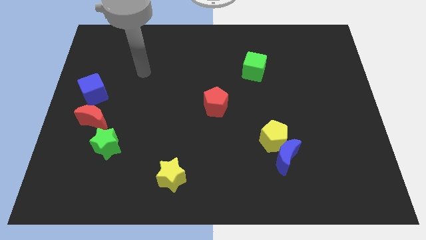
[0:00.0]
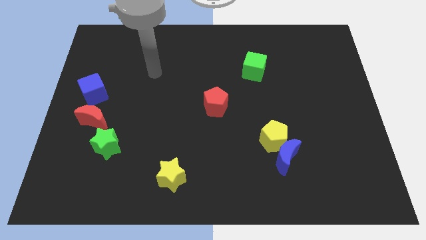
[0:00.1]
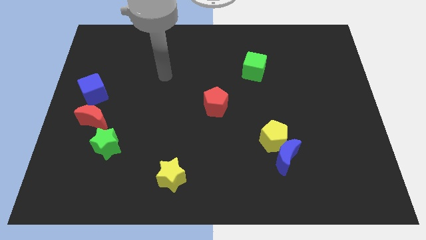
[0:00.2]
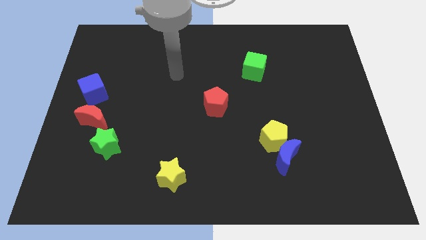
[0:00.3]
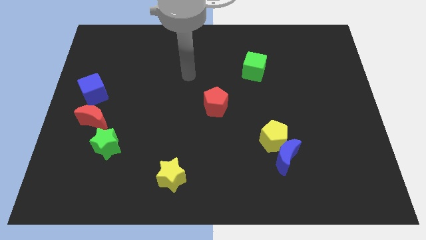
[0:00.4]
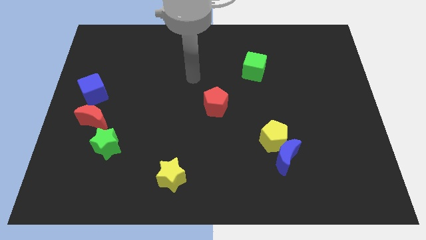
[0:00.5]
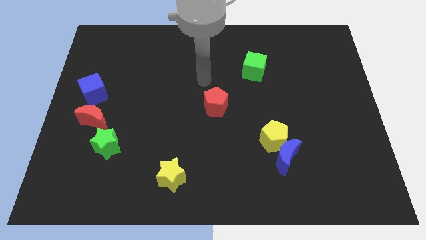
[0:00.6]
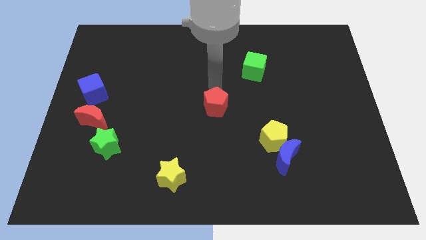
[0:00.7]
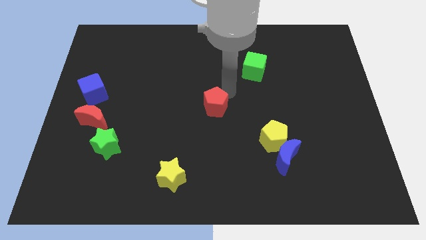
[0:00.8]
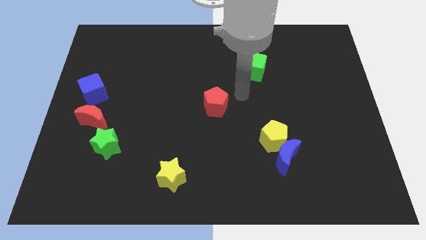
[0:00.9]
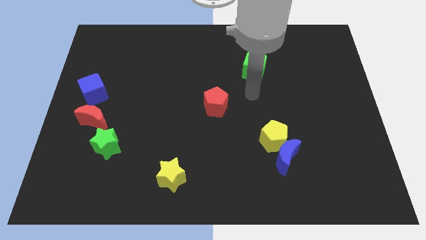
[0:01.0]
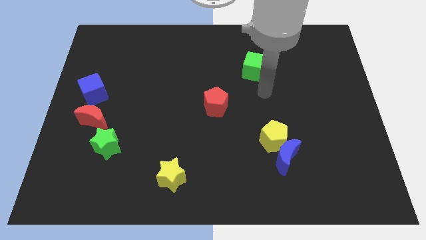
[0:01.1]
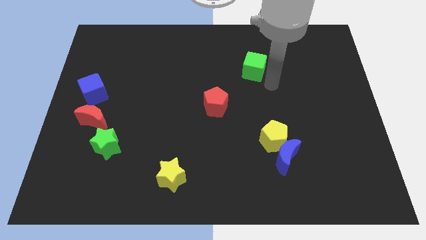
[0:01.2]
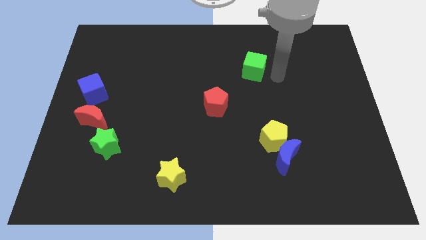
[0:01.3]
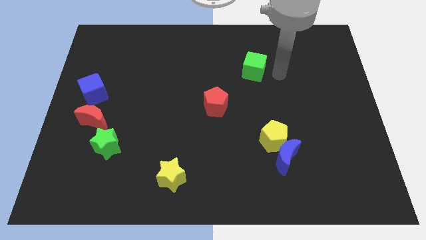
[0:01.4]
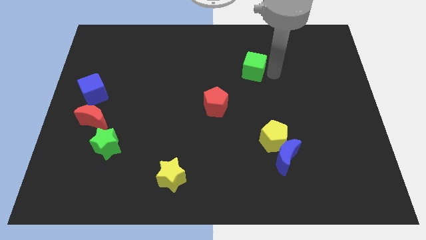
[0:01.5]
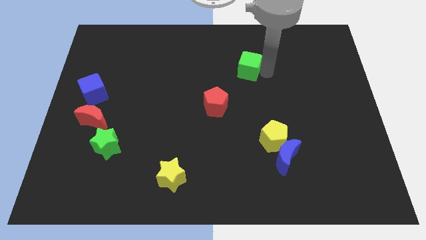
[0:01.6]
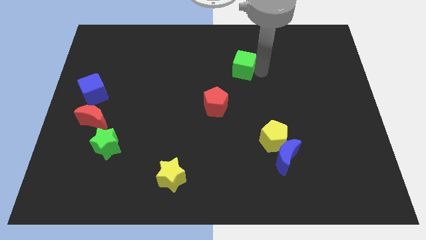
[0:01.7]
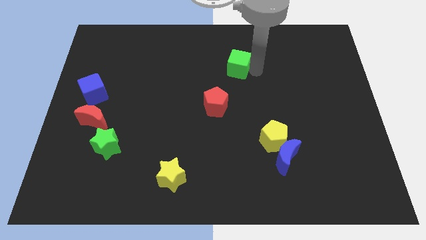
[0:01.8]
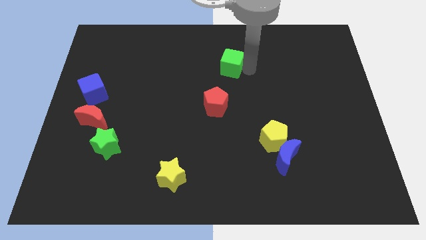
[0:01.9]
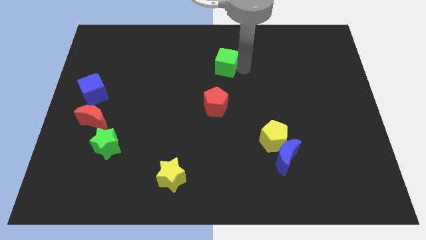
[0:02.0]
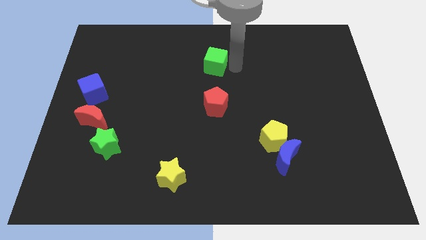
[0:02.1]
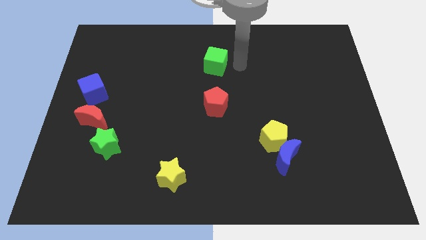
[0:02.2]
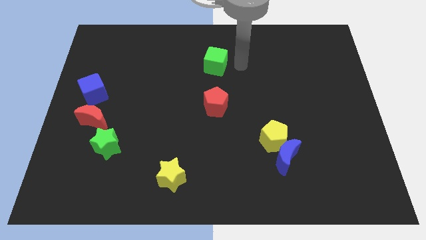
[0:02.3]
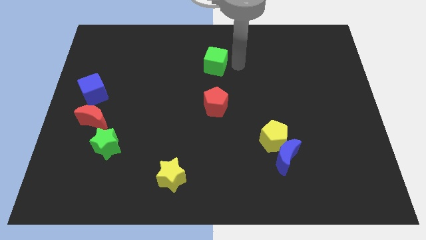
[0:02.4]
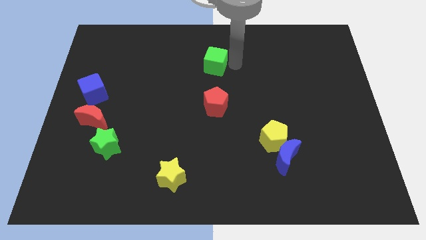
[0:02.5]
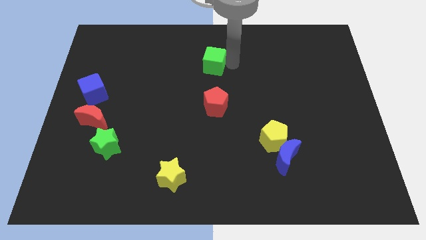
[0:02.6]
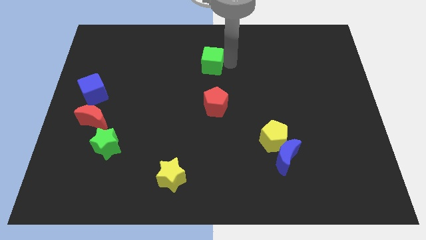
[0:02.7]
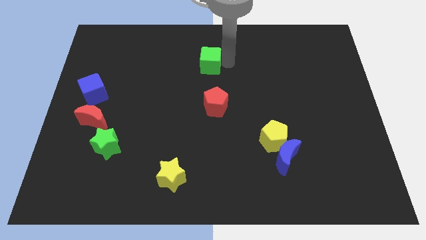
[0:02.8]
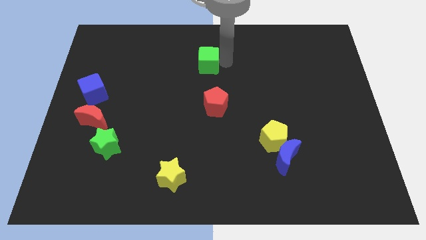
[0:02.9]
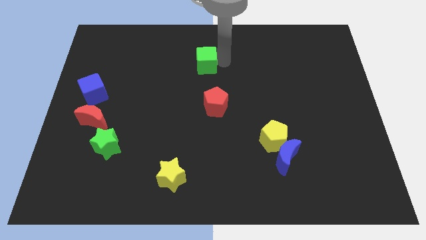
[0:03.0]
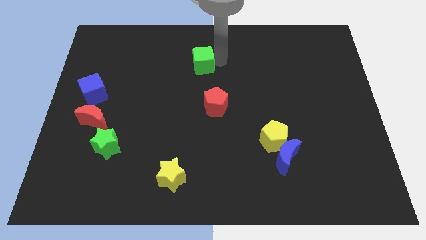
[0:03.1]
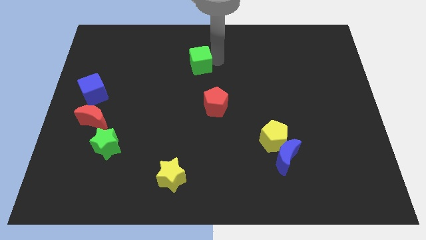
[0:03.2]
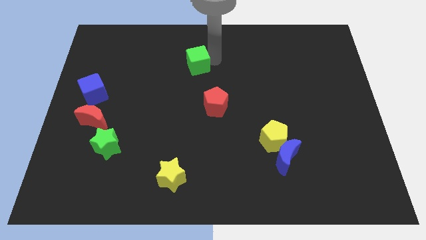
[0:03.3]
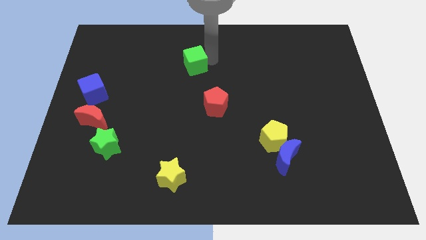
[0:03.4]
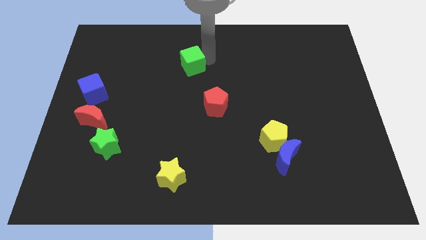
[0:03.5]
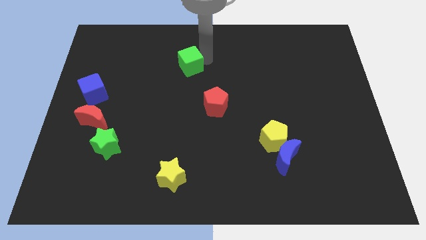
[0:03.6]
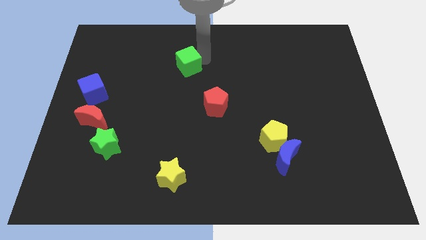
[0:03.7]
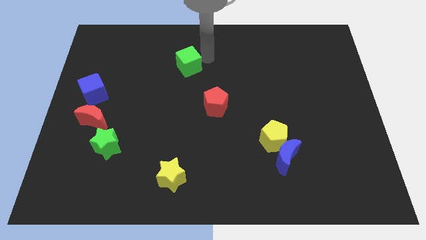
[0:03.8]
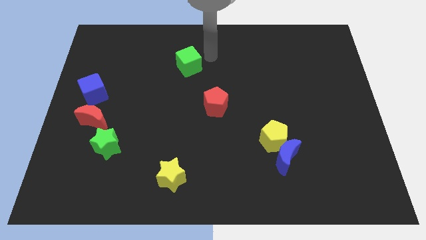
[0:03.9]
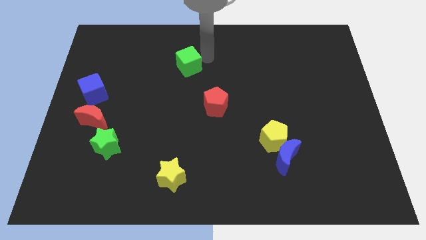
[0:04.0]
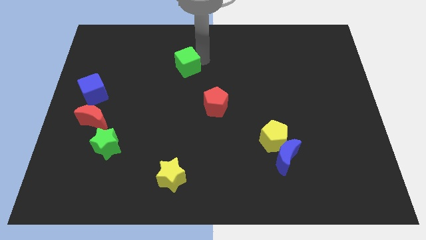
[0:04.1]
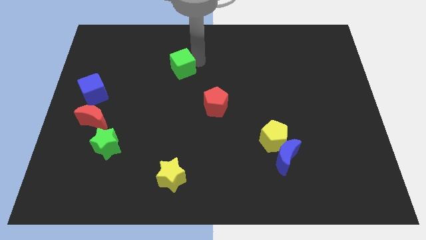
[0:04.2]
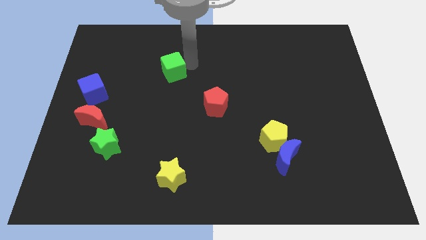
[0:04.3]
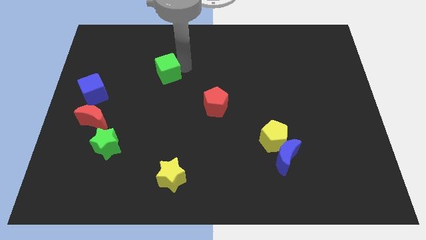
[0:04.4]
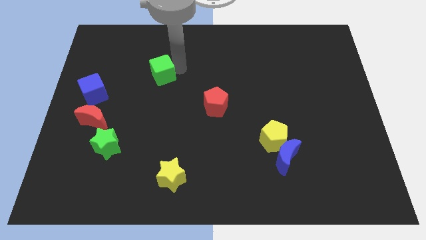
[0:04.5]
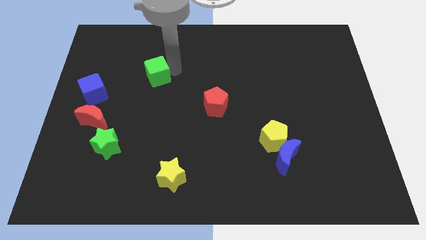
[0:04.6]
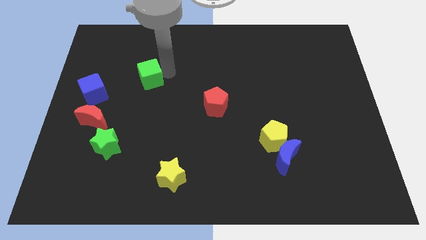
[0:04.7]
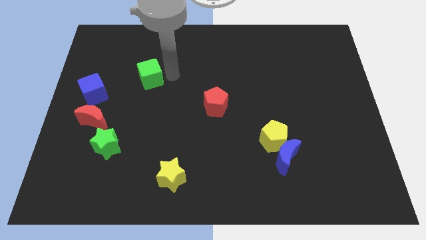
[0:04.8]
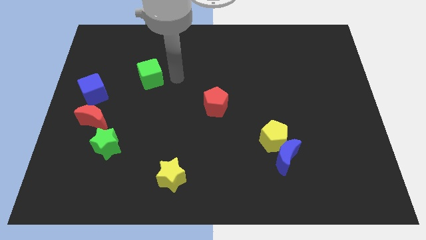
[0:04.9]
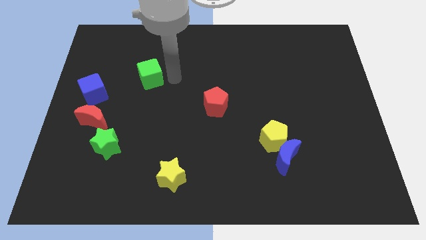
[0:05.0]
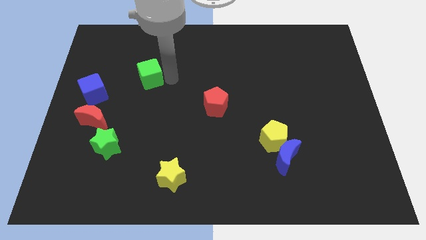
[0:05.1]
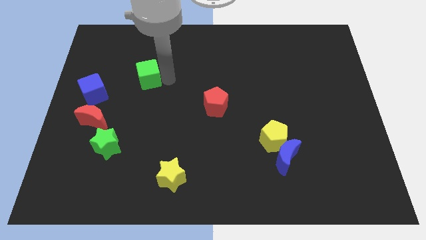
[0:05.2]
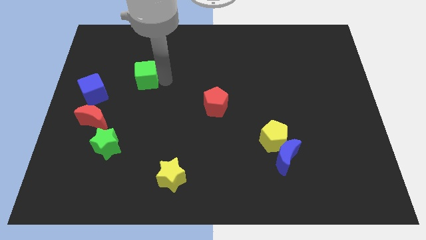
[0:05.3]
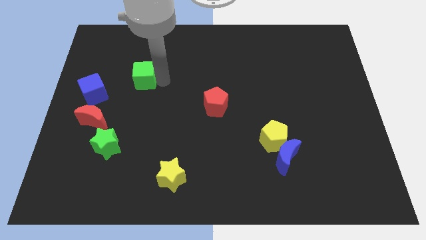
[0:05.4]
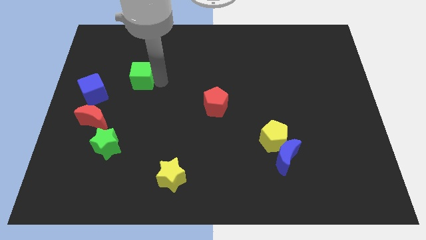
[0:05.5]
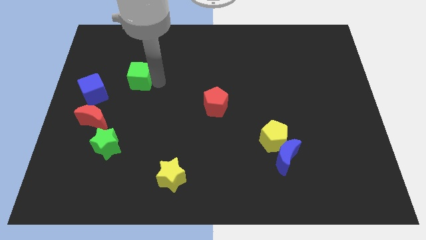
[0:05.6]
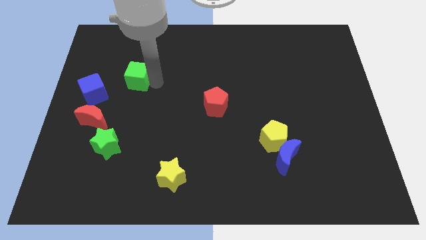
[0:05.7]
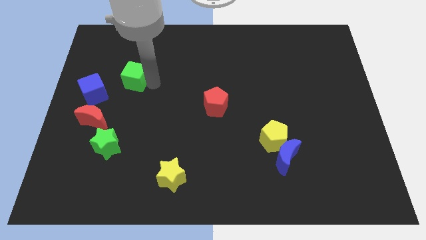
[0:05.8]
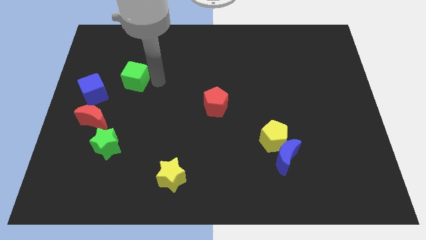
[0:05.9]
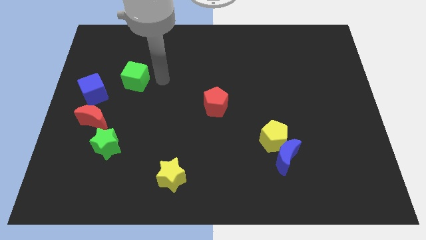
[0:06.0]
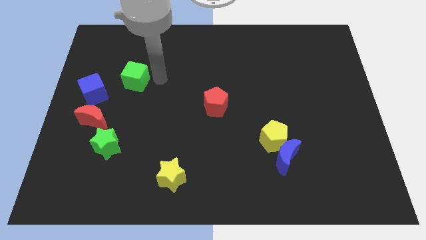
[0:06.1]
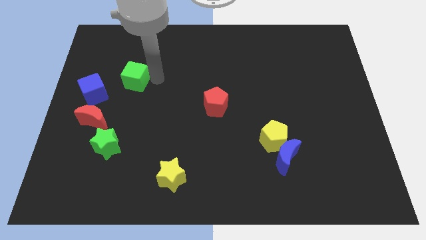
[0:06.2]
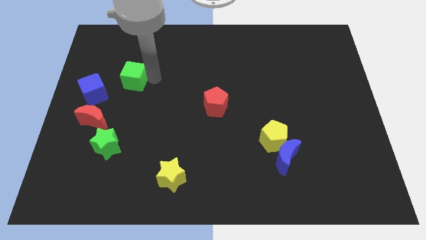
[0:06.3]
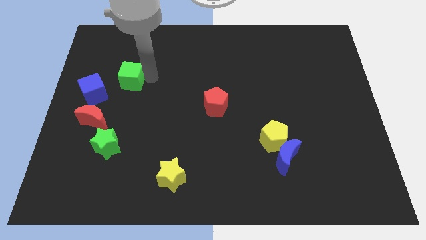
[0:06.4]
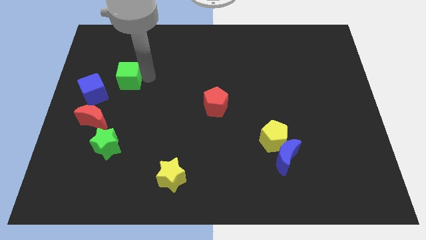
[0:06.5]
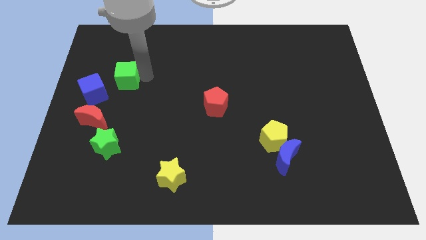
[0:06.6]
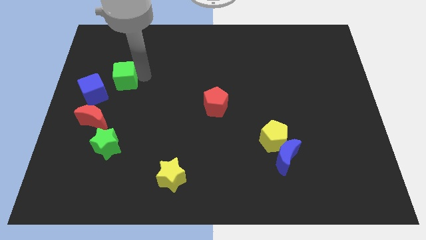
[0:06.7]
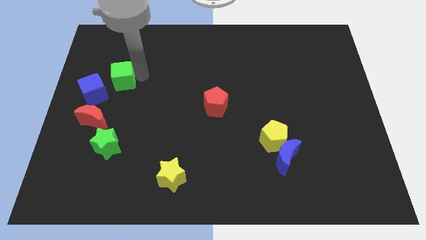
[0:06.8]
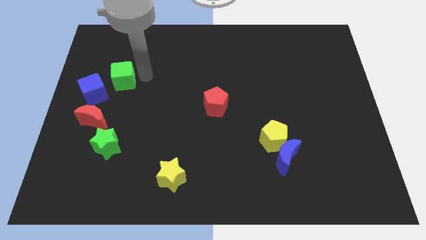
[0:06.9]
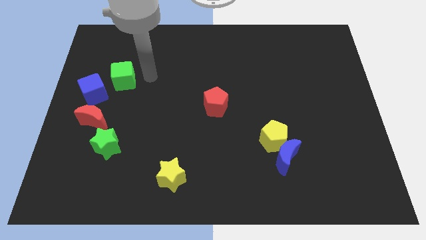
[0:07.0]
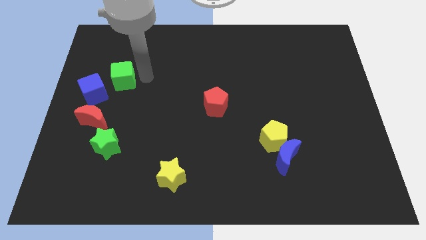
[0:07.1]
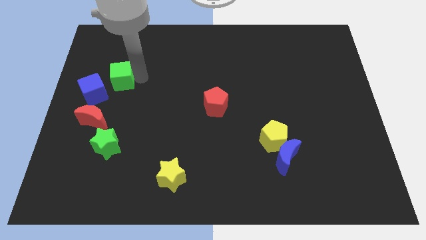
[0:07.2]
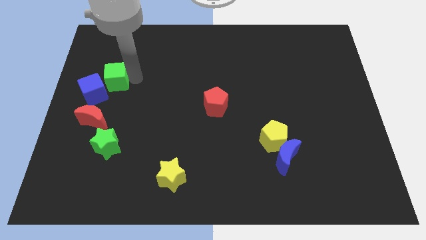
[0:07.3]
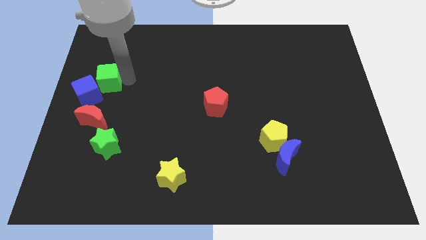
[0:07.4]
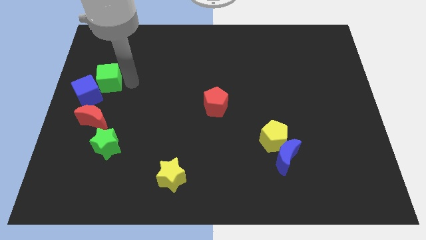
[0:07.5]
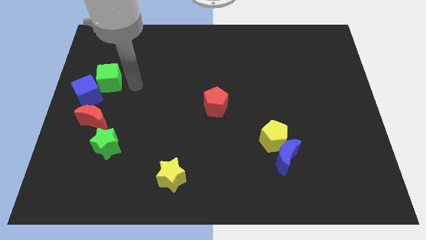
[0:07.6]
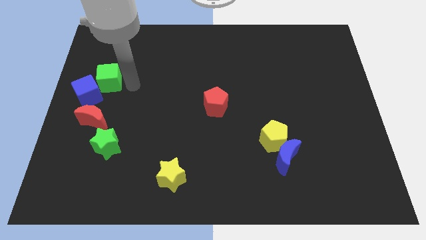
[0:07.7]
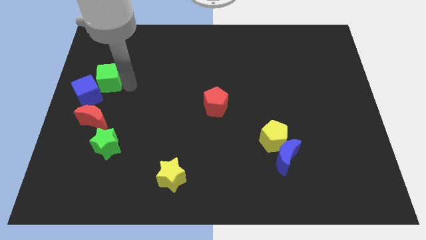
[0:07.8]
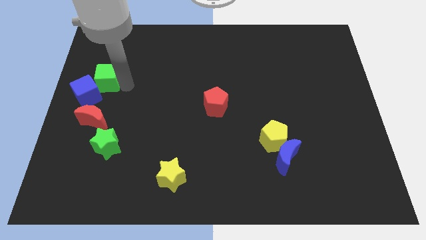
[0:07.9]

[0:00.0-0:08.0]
push the green cube to the center left
